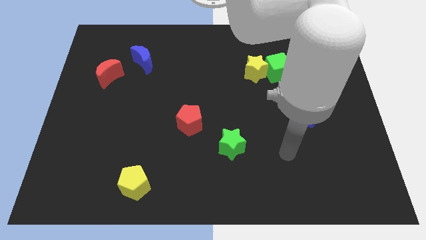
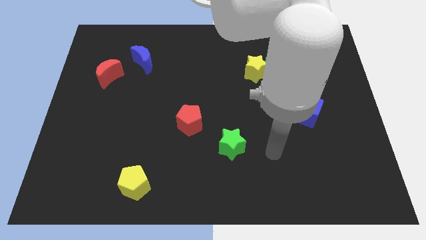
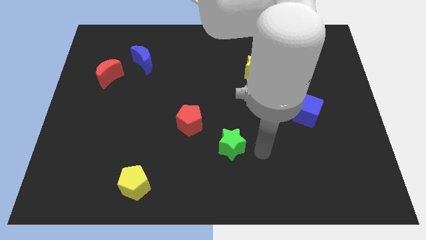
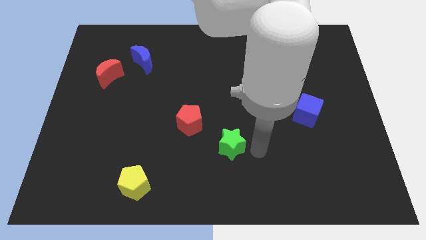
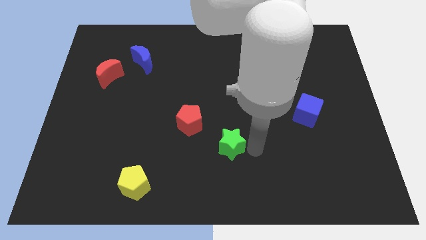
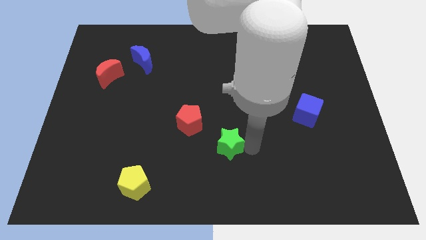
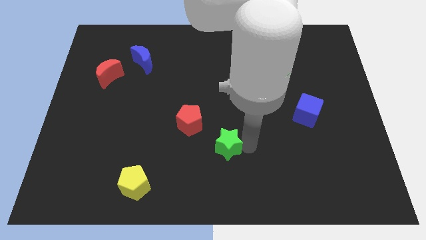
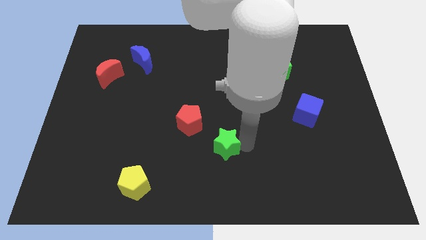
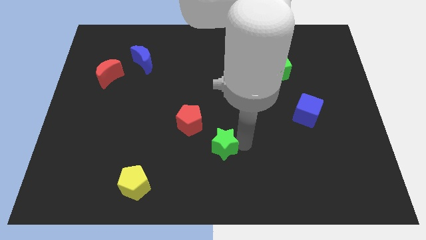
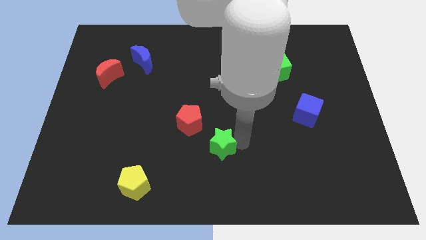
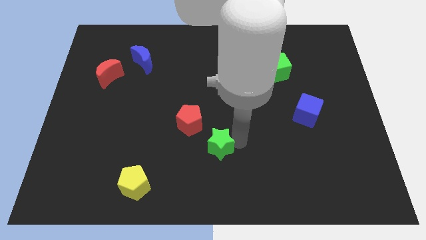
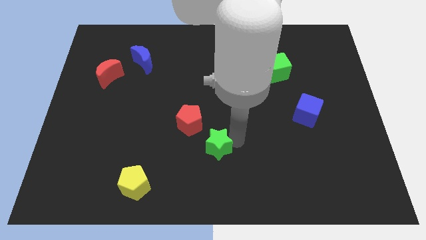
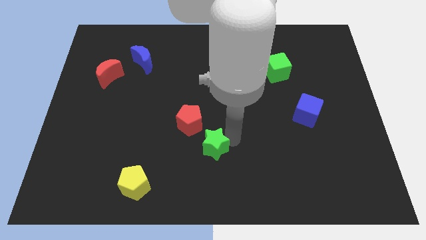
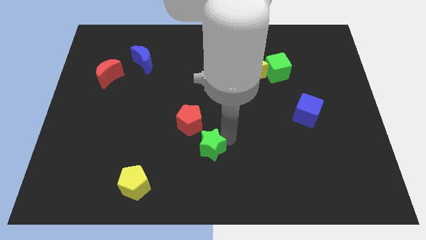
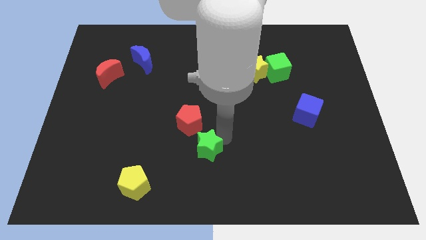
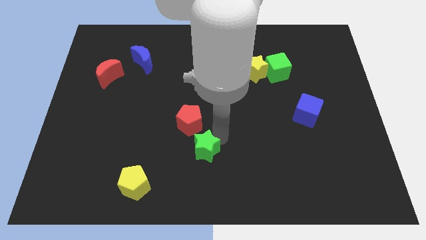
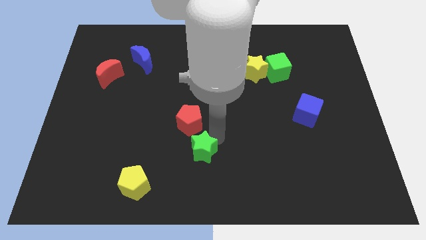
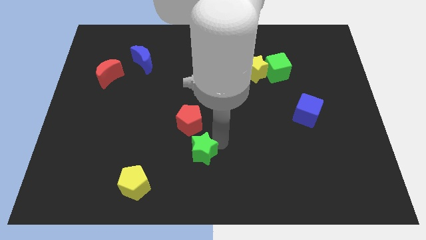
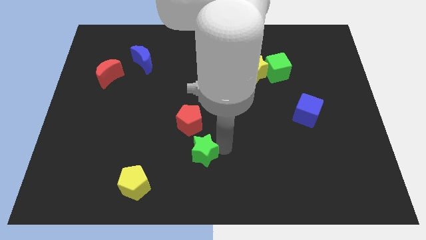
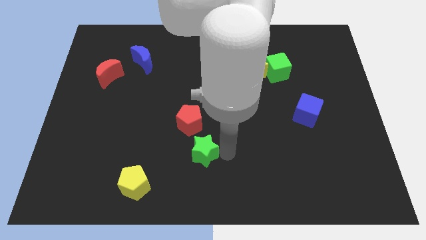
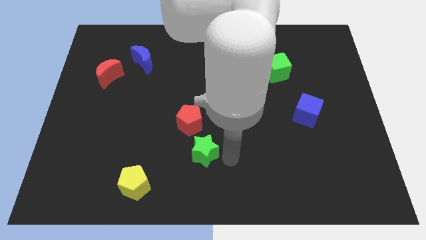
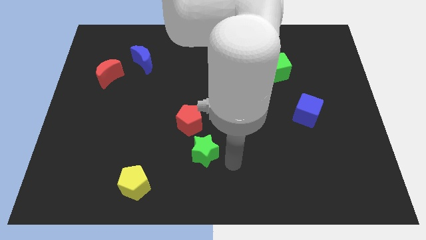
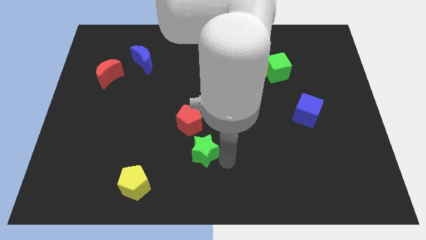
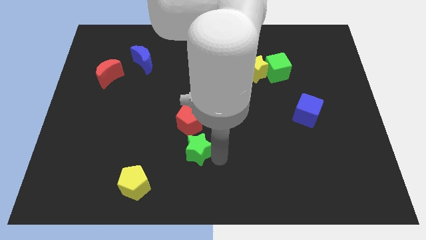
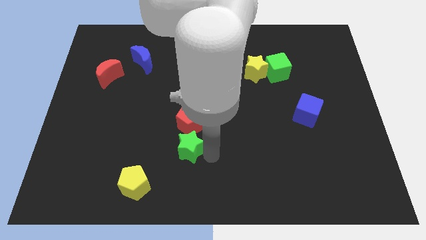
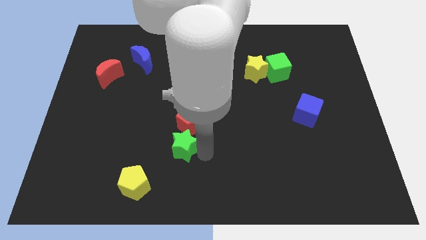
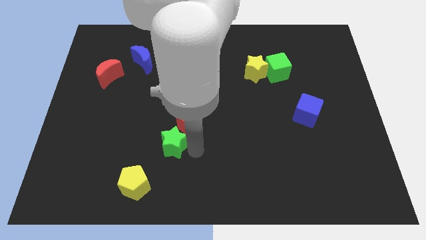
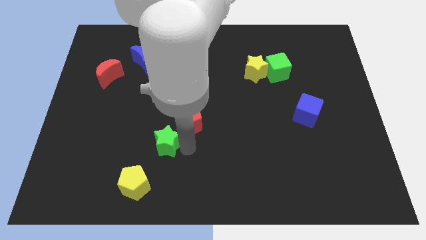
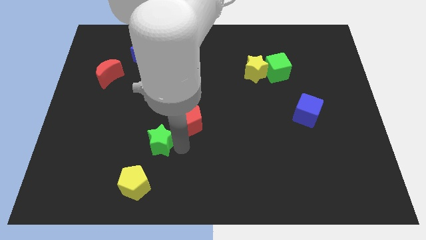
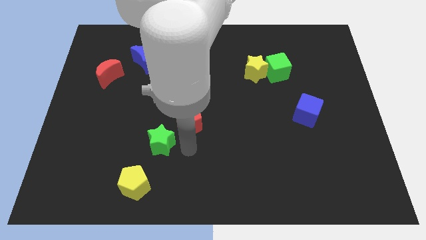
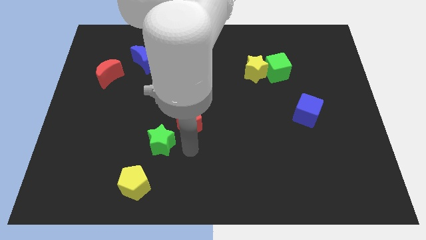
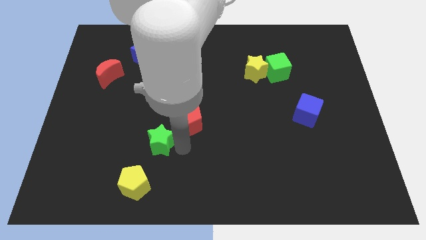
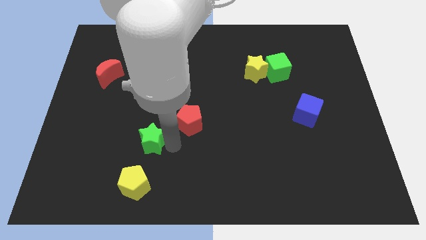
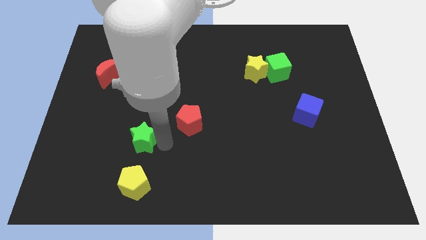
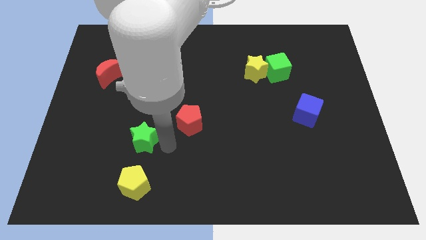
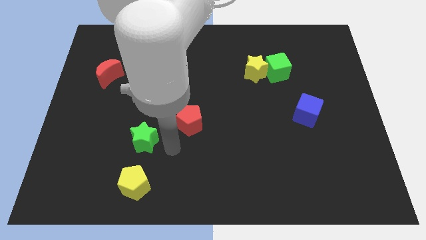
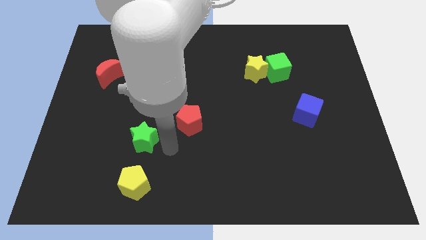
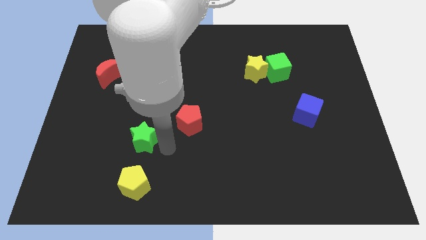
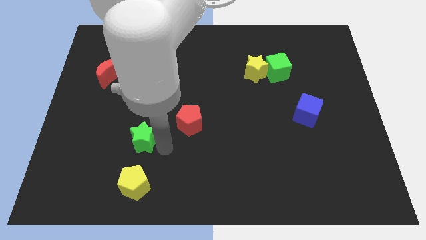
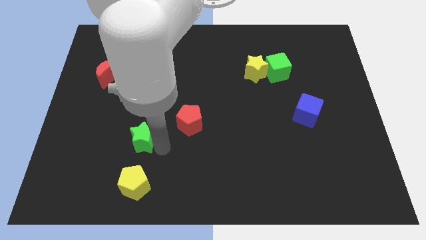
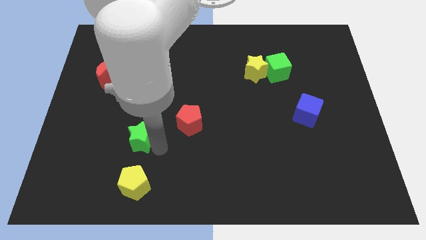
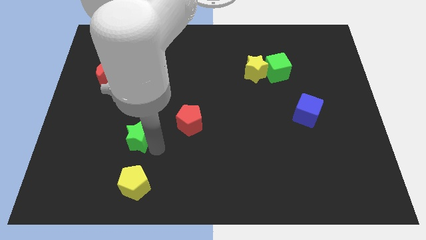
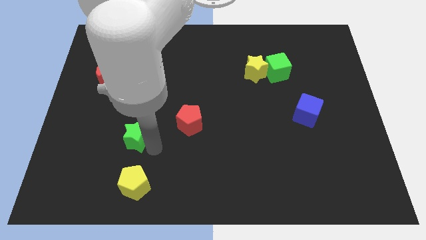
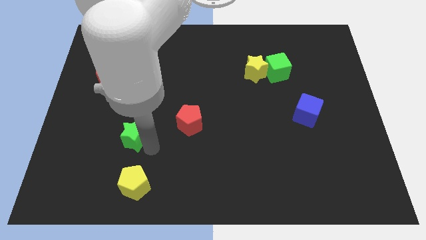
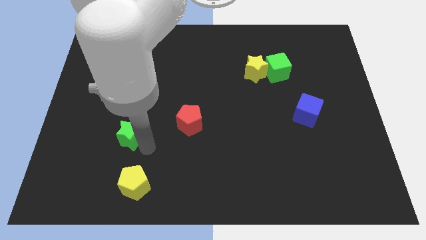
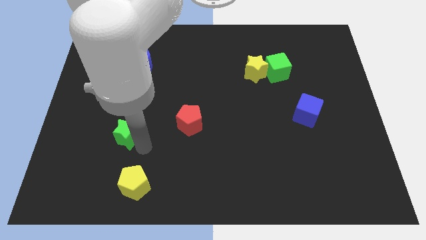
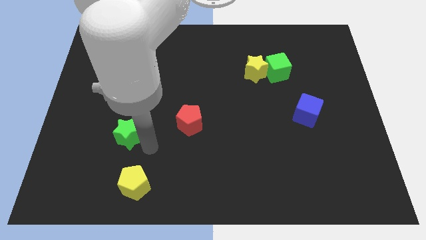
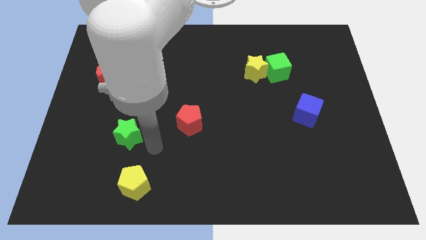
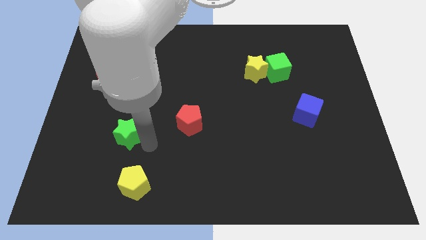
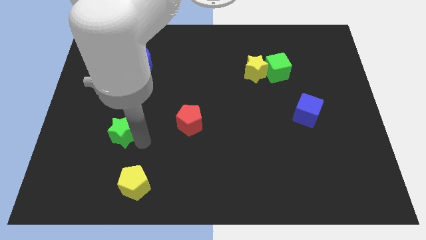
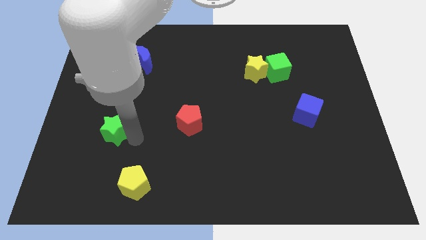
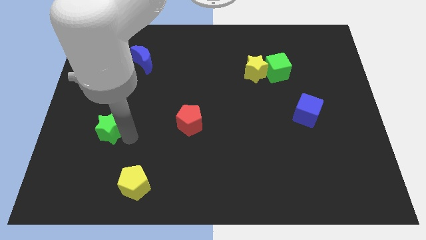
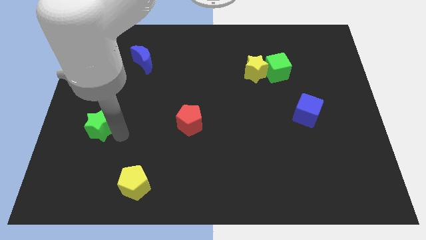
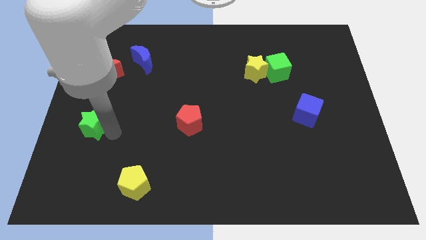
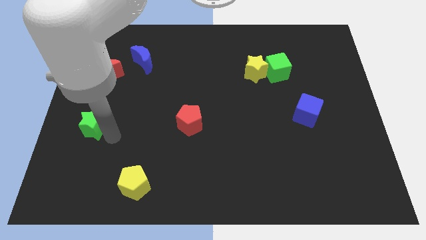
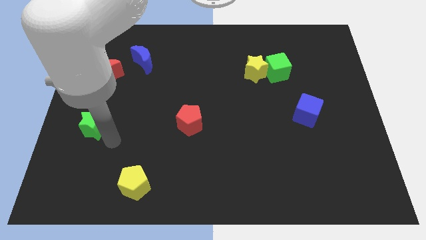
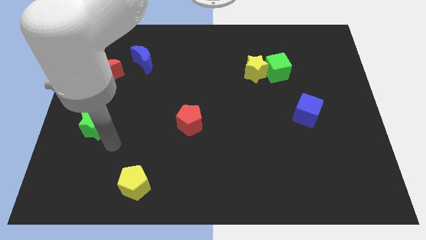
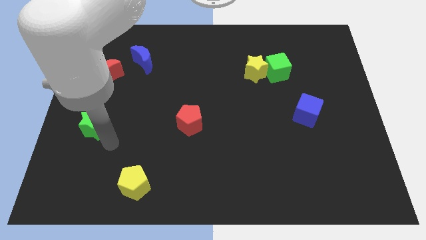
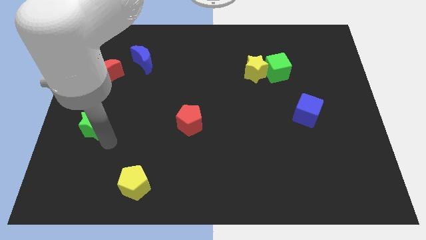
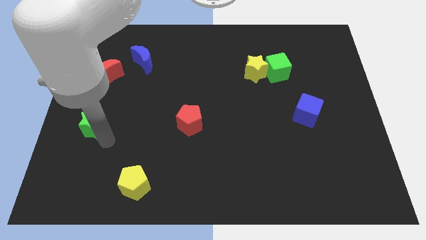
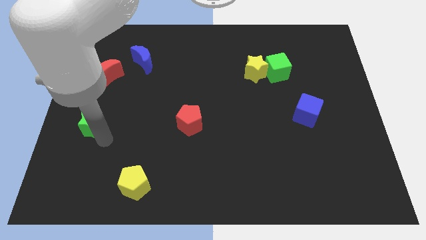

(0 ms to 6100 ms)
push the green star to the left side of the board

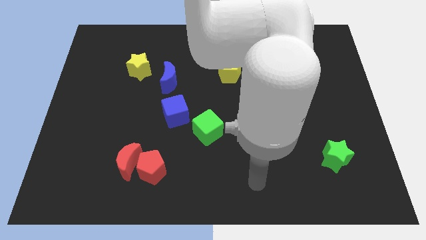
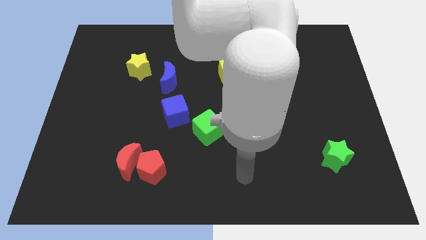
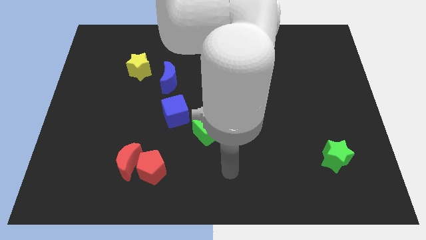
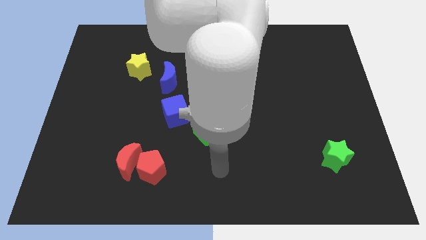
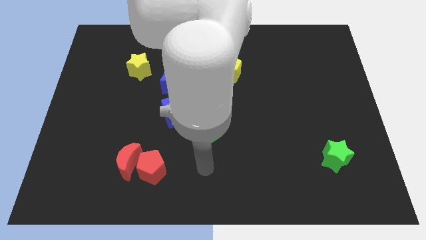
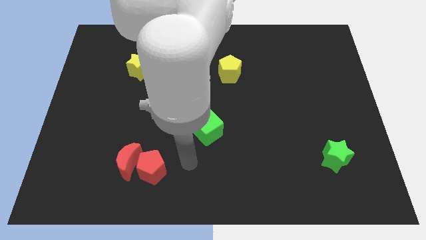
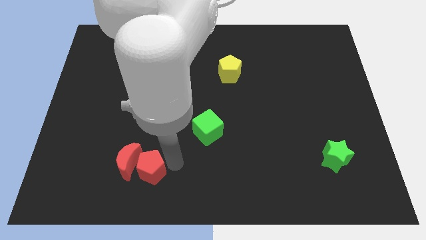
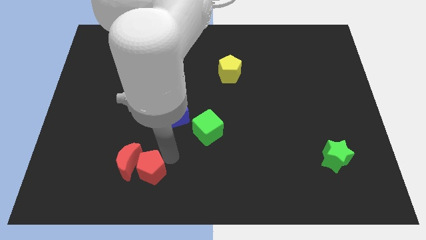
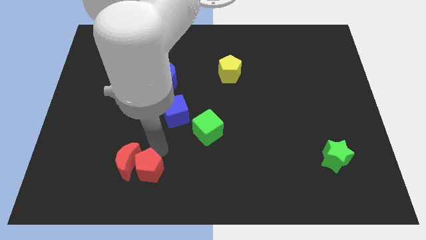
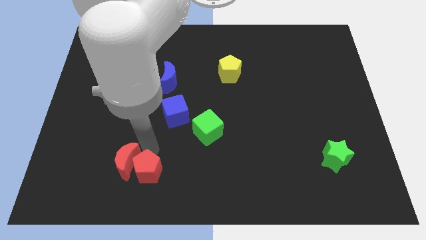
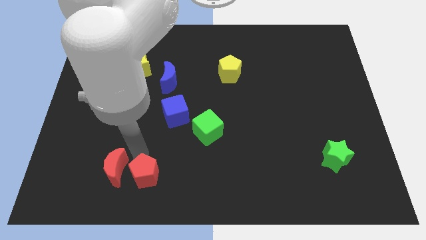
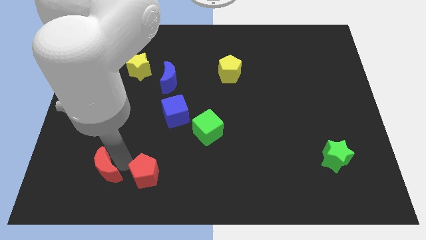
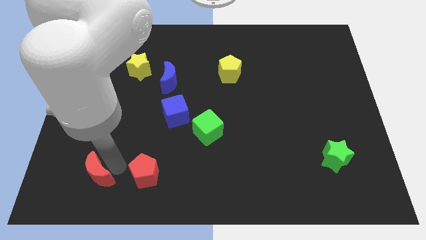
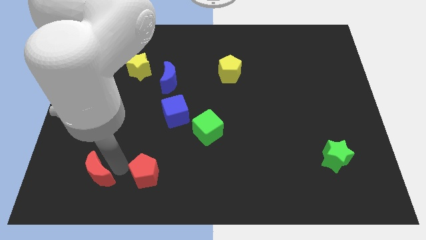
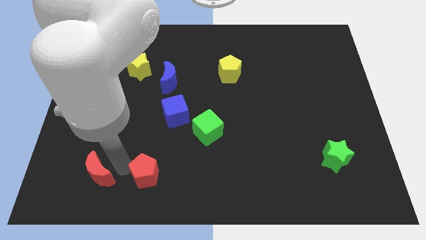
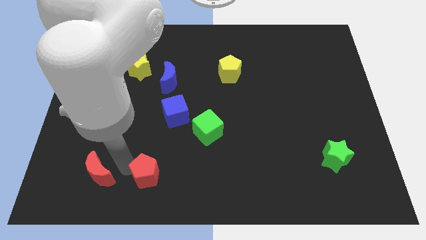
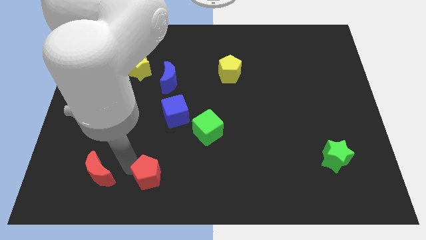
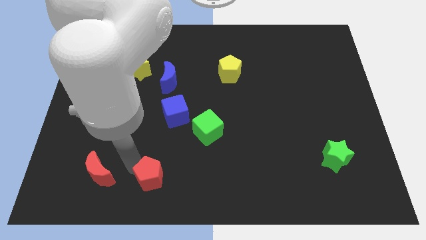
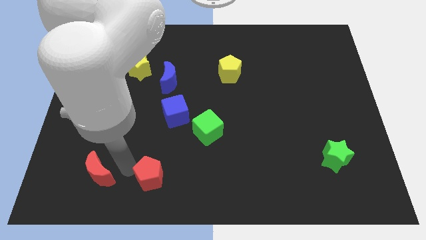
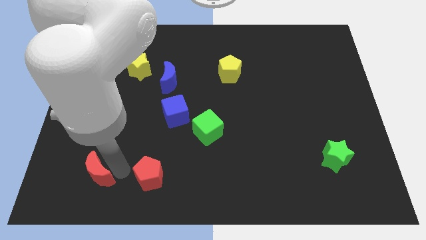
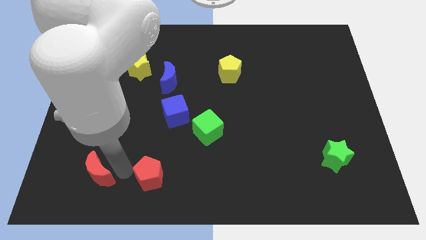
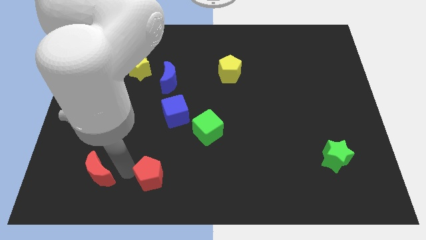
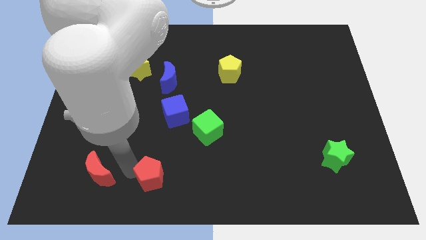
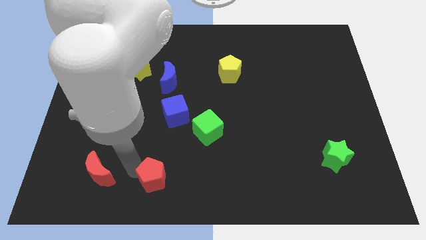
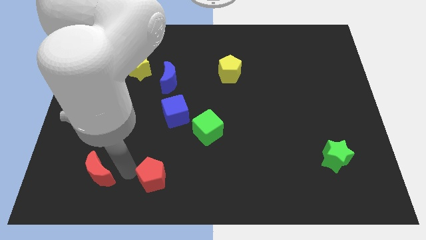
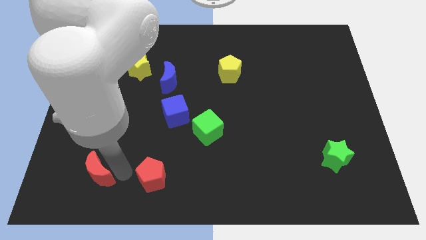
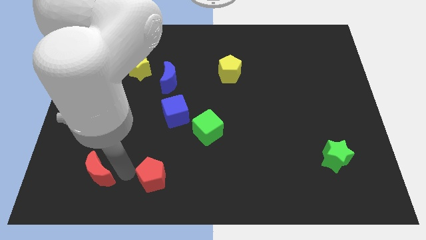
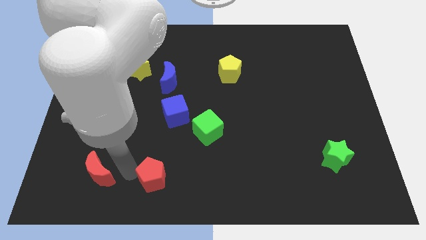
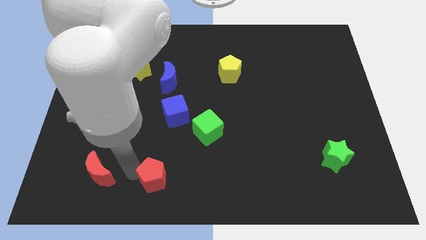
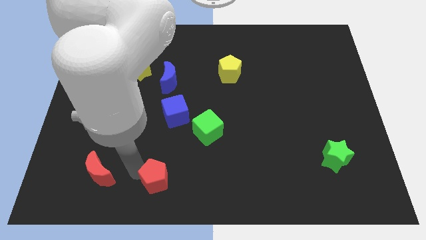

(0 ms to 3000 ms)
move the red pentagon to the bottom
